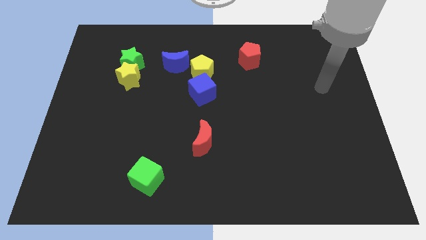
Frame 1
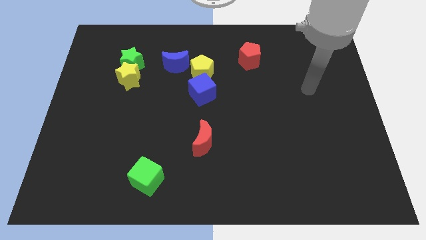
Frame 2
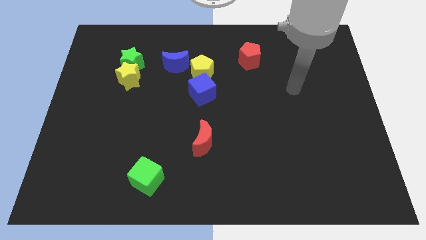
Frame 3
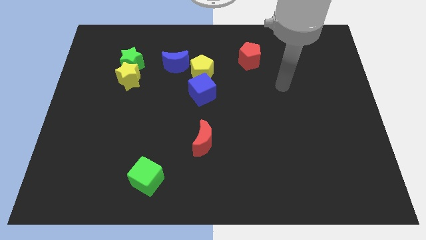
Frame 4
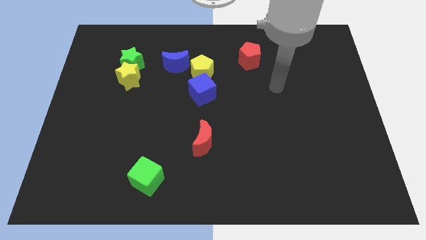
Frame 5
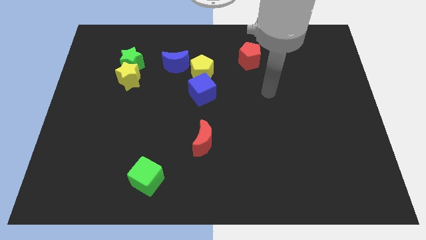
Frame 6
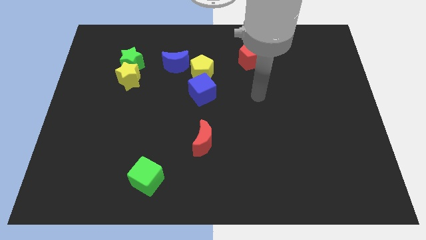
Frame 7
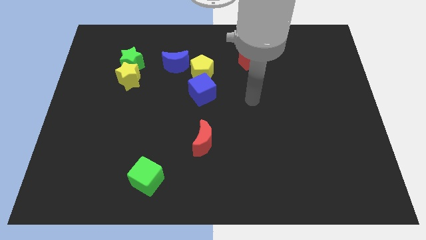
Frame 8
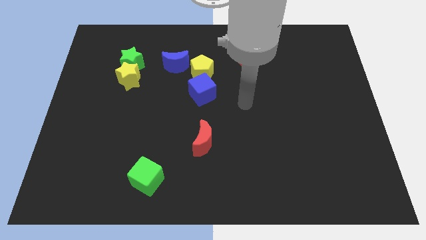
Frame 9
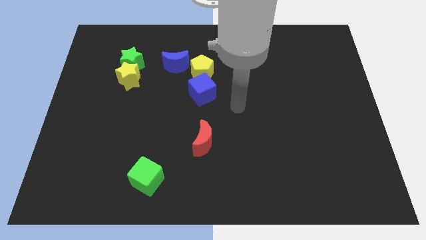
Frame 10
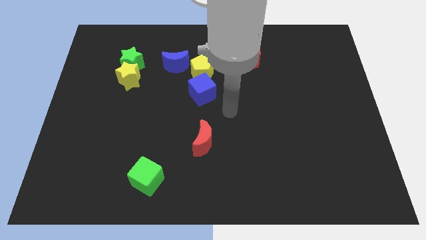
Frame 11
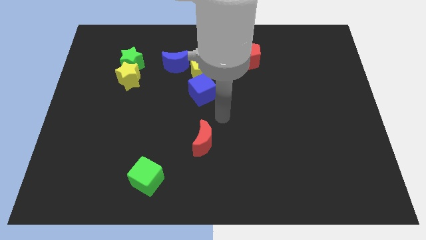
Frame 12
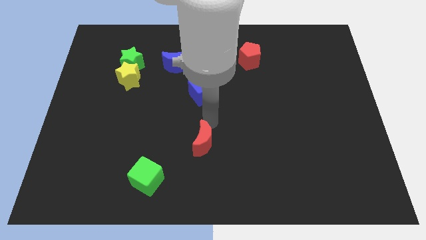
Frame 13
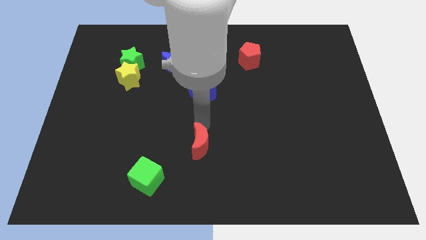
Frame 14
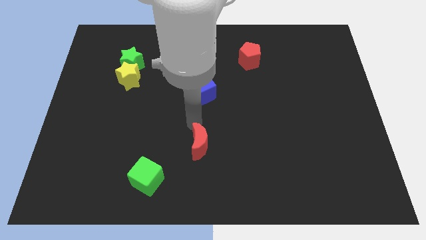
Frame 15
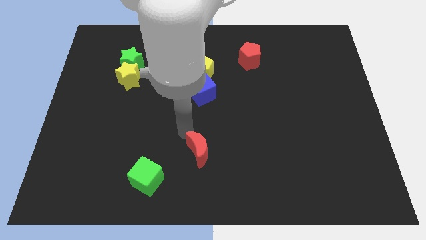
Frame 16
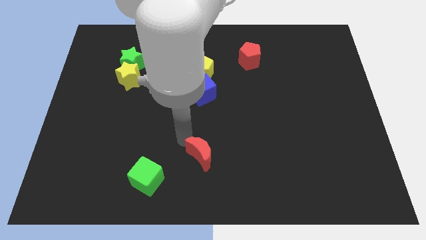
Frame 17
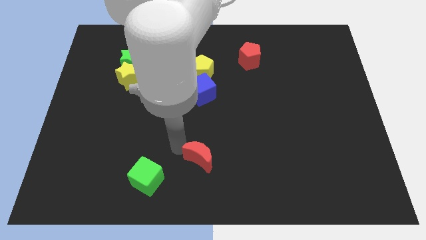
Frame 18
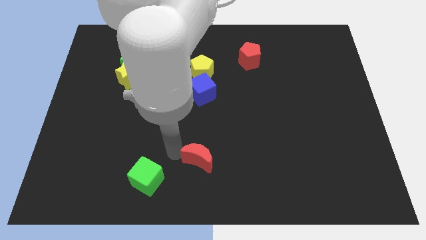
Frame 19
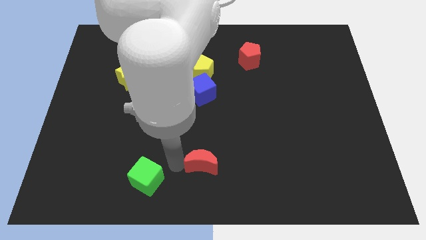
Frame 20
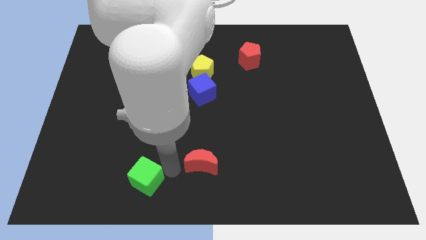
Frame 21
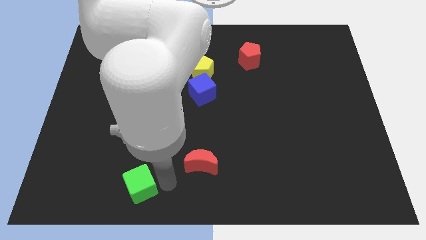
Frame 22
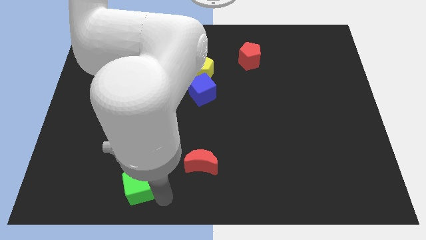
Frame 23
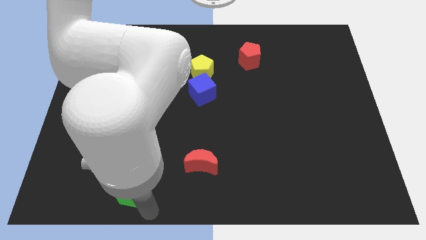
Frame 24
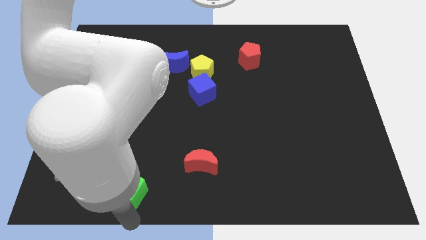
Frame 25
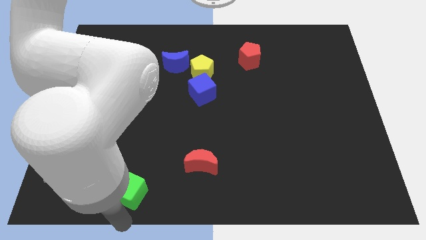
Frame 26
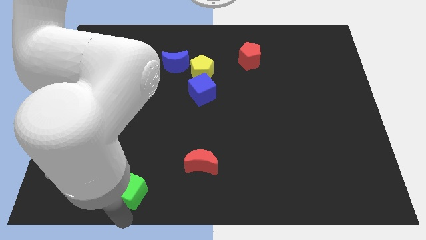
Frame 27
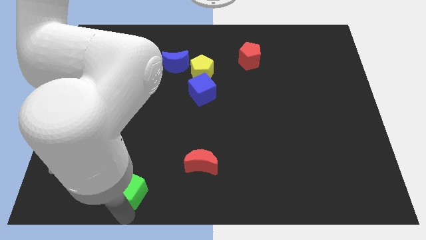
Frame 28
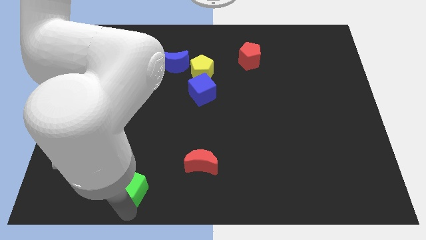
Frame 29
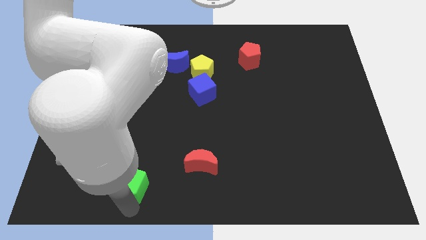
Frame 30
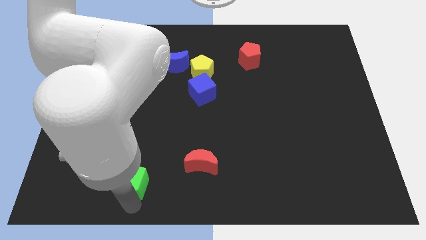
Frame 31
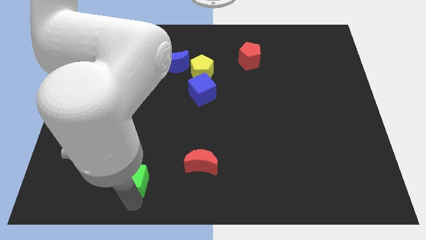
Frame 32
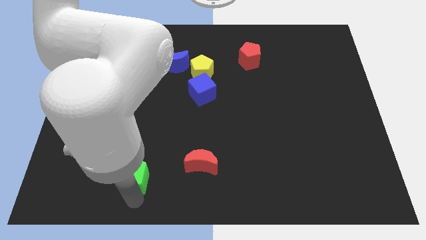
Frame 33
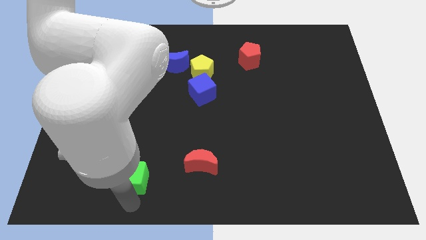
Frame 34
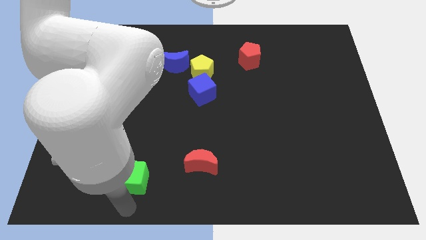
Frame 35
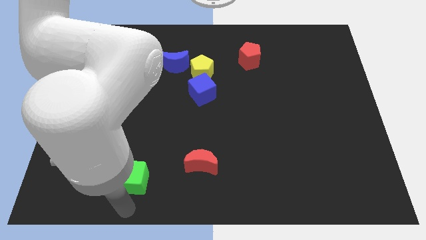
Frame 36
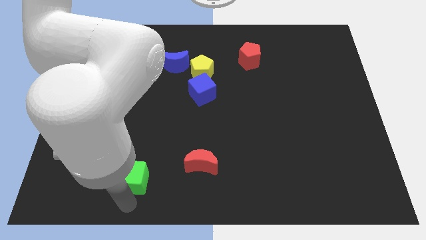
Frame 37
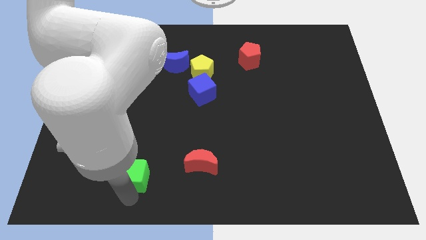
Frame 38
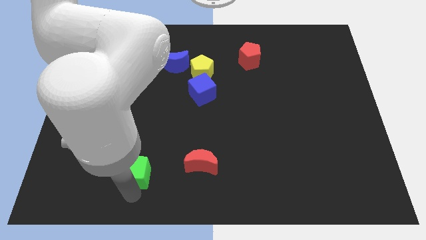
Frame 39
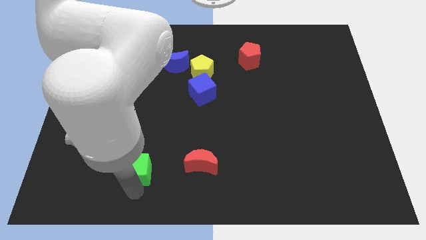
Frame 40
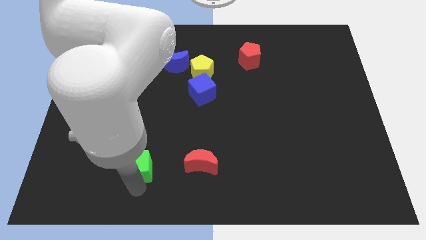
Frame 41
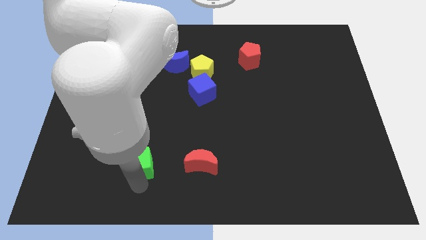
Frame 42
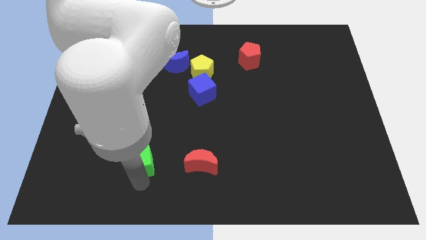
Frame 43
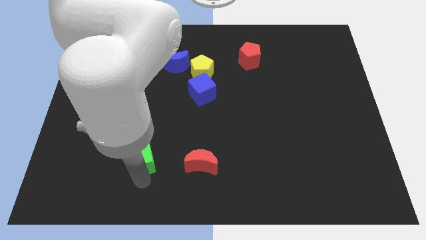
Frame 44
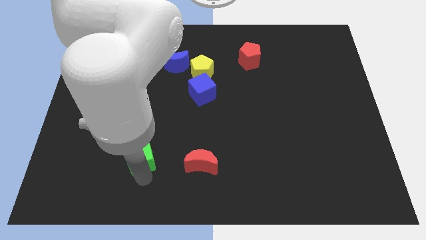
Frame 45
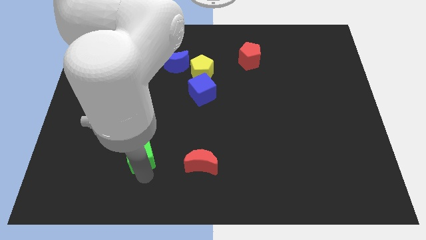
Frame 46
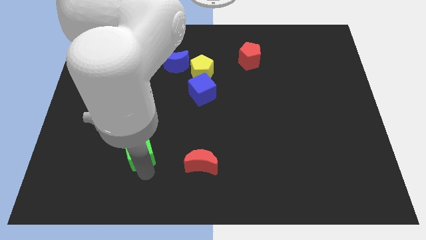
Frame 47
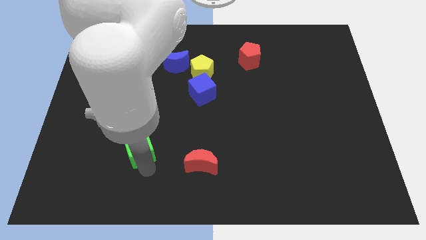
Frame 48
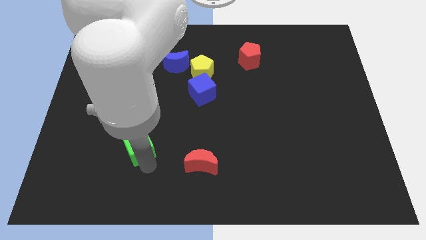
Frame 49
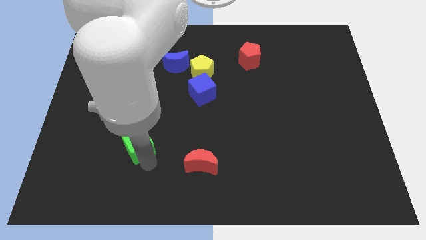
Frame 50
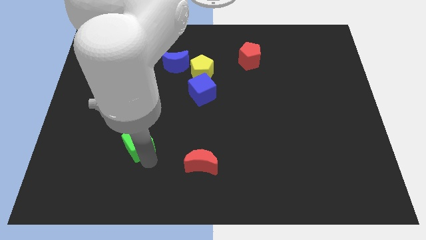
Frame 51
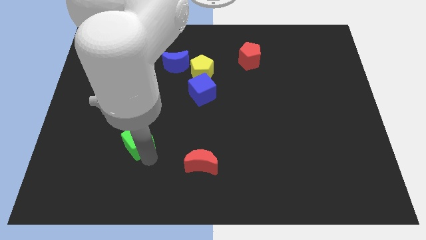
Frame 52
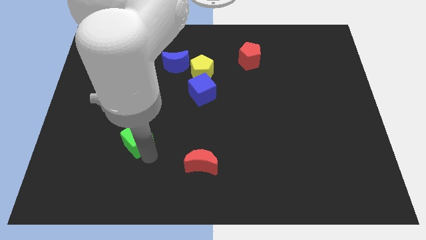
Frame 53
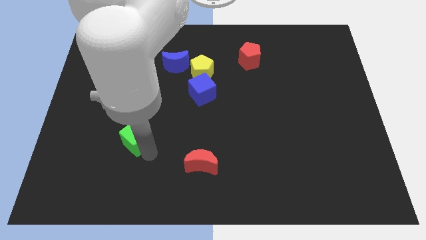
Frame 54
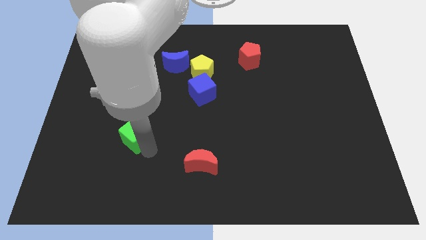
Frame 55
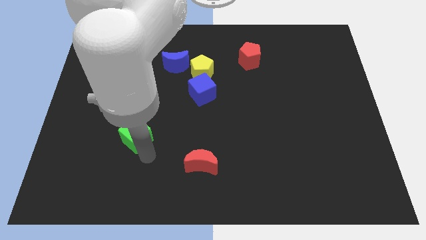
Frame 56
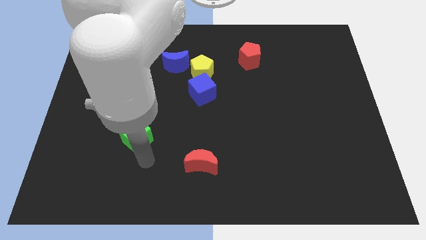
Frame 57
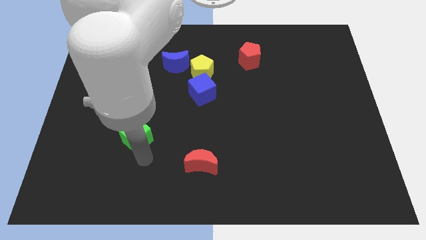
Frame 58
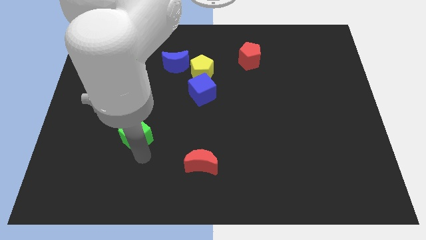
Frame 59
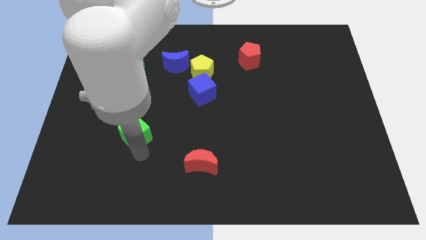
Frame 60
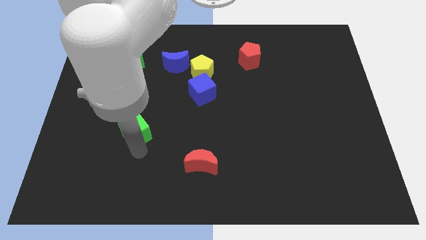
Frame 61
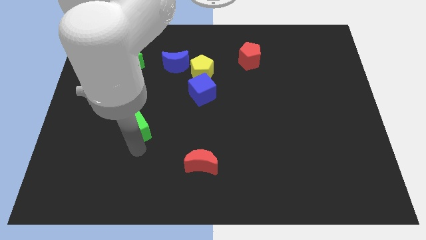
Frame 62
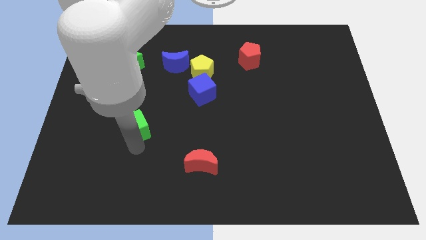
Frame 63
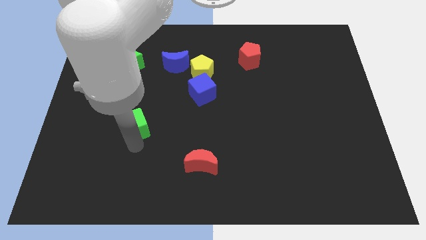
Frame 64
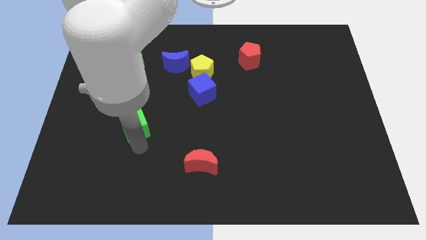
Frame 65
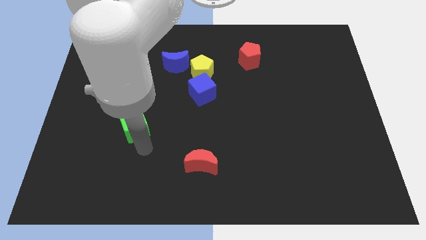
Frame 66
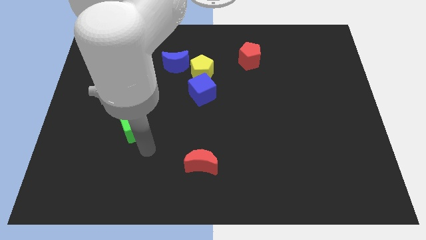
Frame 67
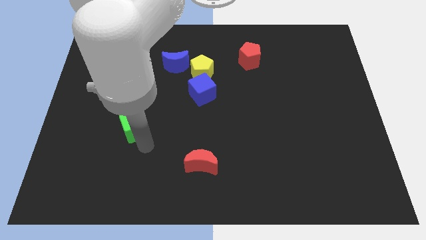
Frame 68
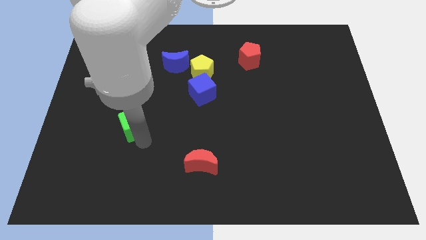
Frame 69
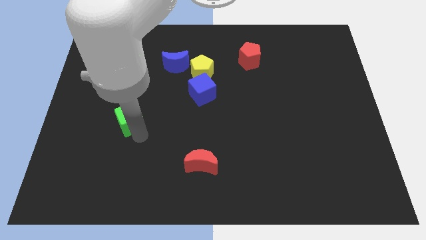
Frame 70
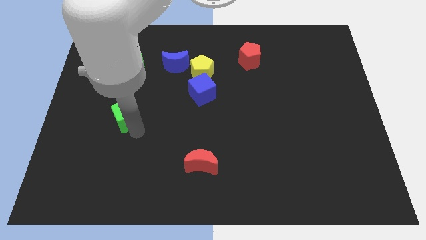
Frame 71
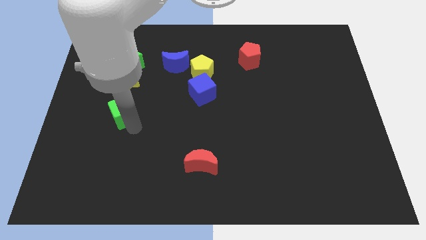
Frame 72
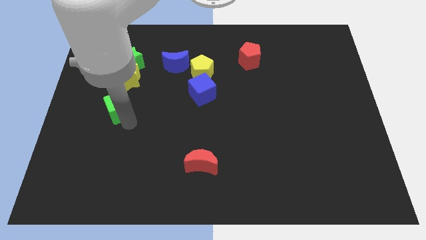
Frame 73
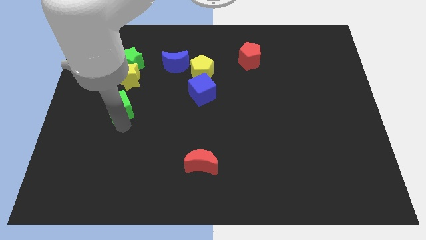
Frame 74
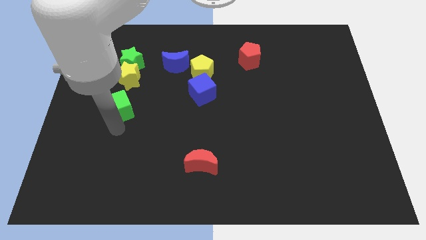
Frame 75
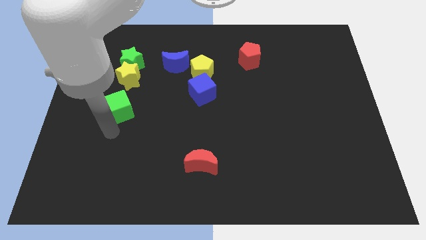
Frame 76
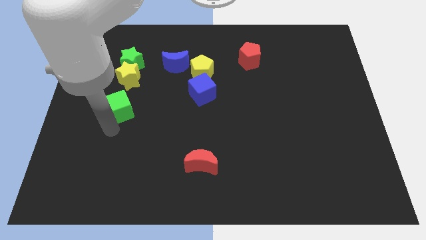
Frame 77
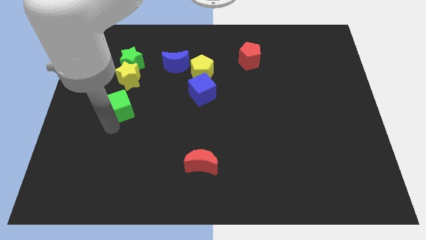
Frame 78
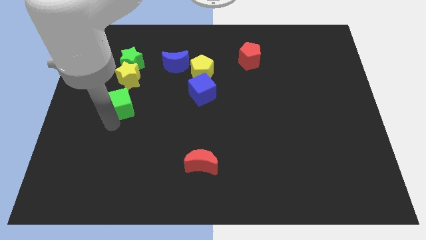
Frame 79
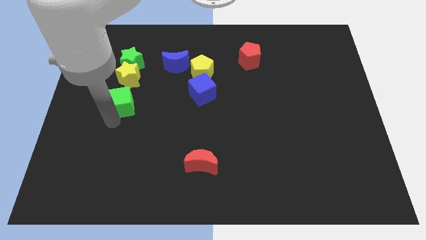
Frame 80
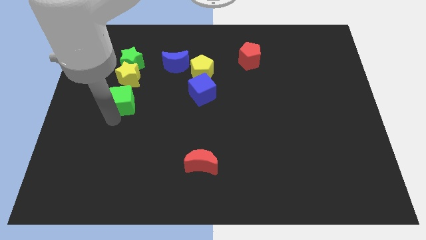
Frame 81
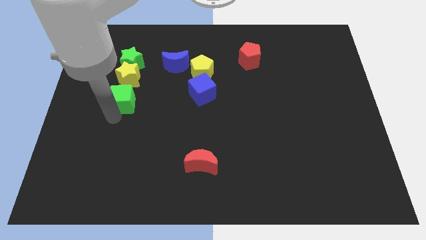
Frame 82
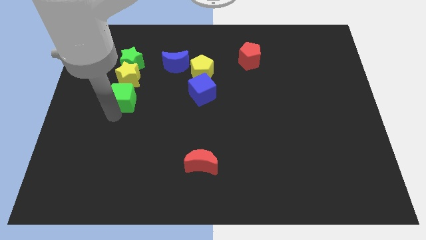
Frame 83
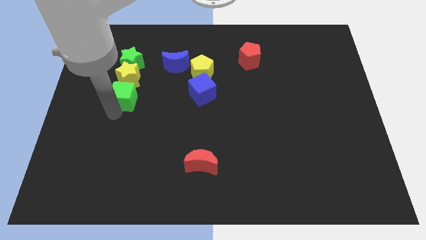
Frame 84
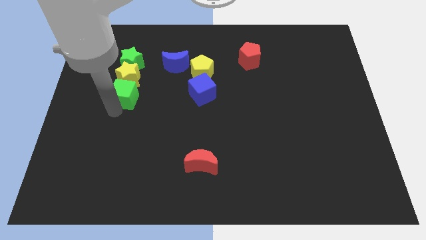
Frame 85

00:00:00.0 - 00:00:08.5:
put the green cube close to the yellow star
